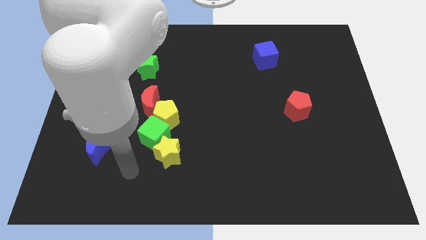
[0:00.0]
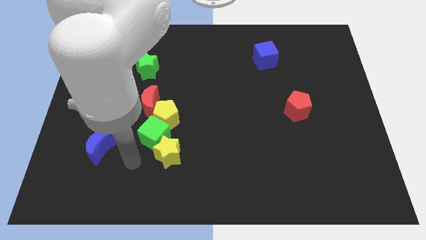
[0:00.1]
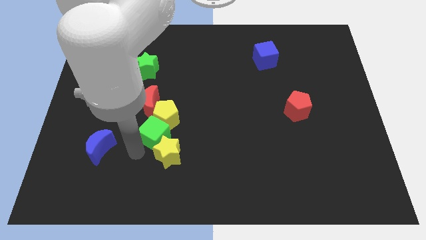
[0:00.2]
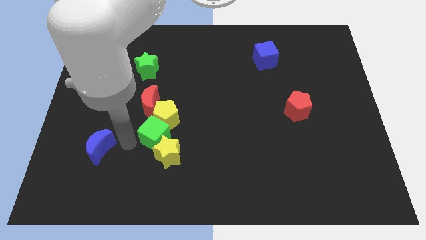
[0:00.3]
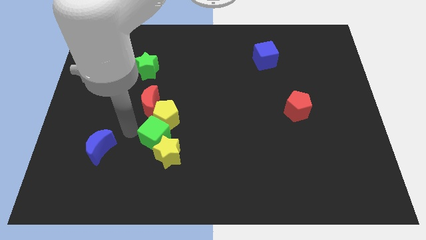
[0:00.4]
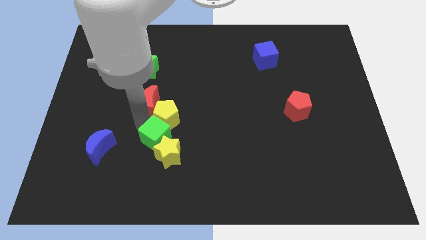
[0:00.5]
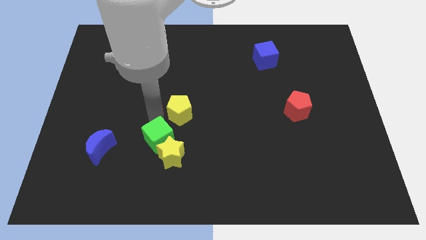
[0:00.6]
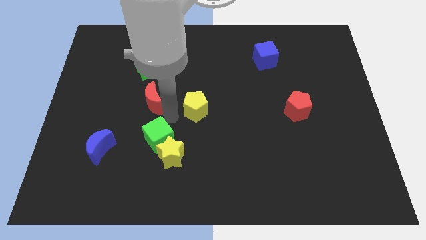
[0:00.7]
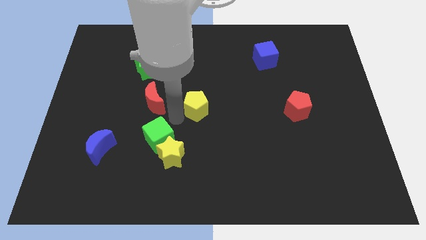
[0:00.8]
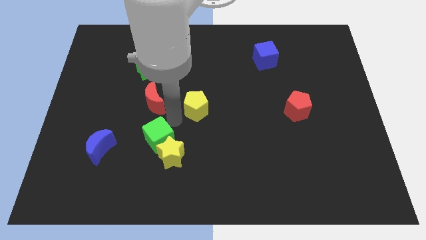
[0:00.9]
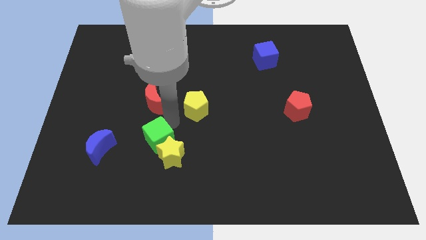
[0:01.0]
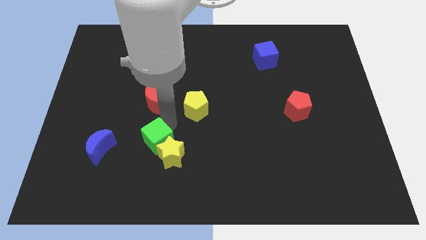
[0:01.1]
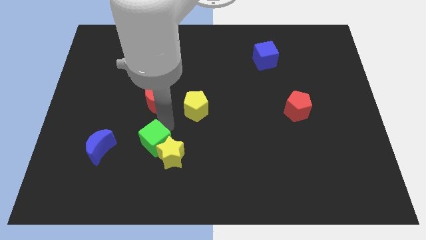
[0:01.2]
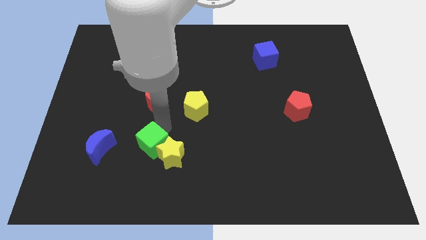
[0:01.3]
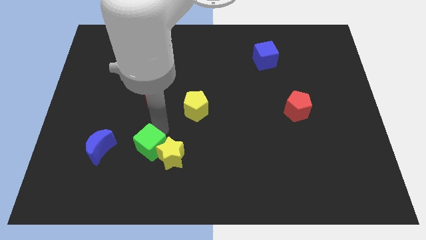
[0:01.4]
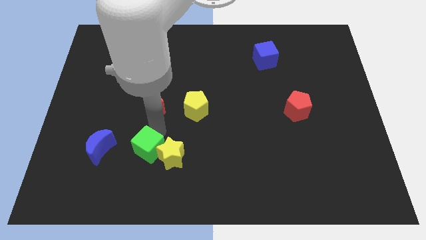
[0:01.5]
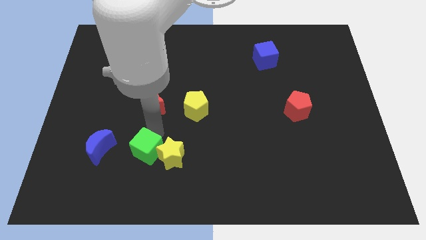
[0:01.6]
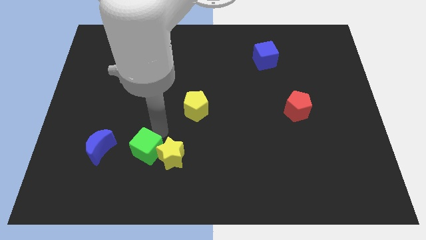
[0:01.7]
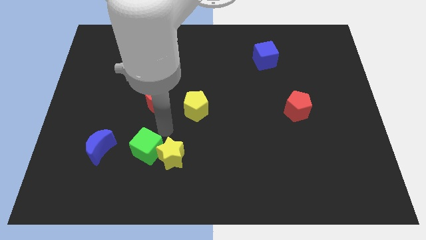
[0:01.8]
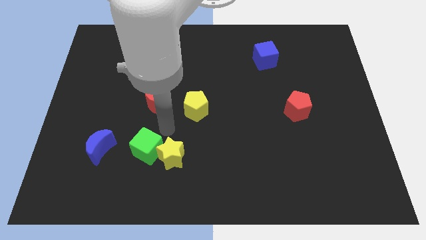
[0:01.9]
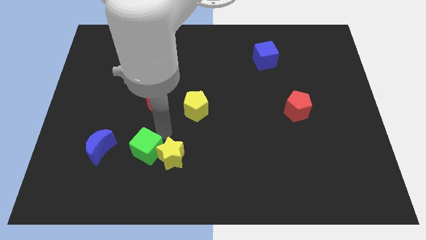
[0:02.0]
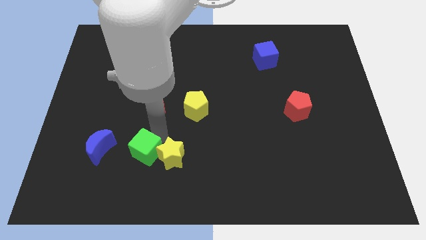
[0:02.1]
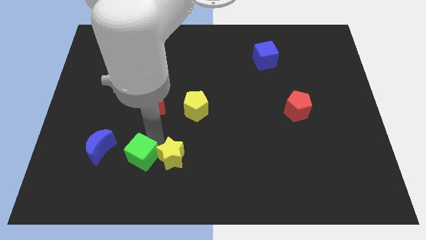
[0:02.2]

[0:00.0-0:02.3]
separate the green cube from the yellow pentagon, yellow star, and red moon

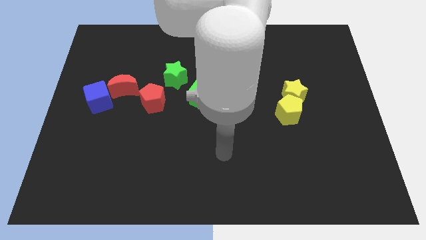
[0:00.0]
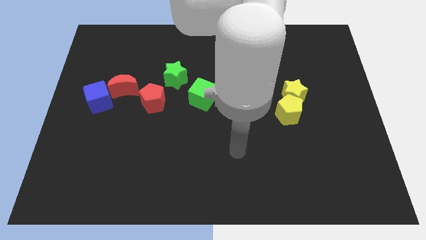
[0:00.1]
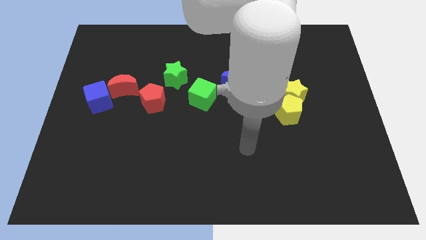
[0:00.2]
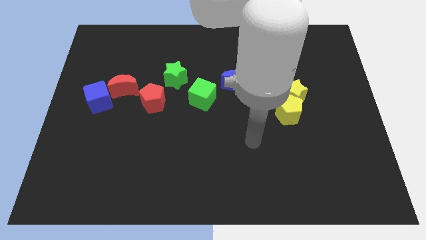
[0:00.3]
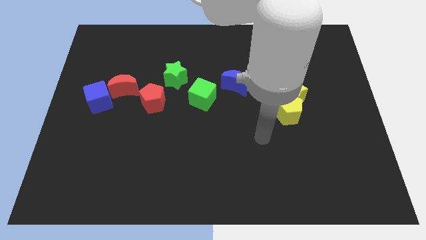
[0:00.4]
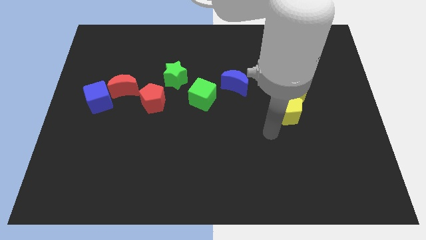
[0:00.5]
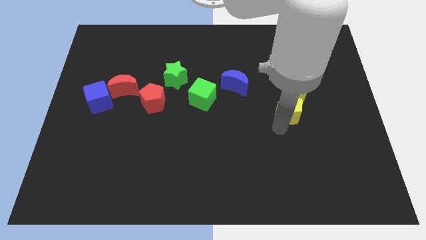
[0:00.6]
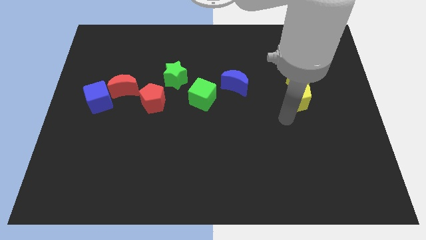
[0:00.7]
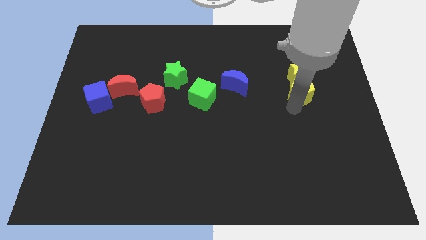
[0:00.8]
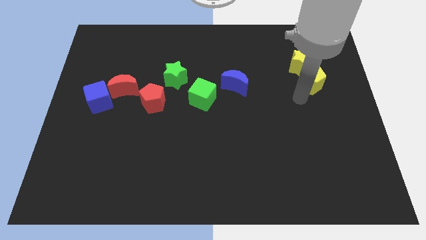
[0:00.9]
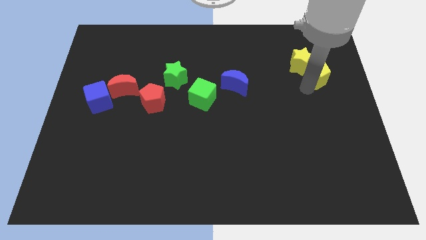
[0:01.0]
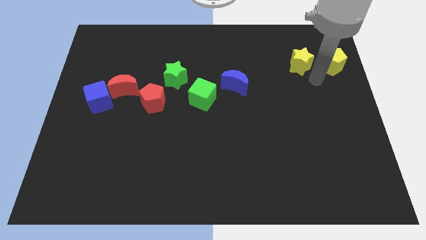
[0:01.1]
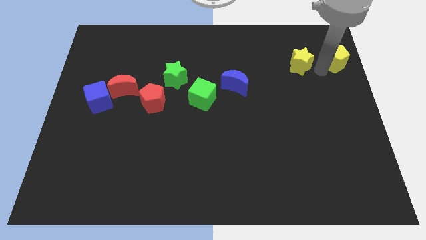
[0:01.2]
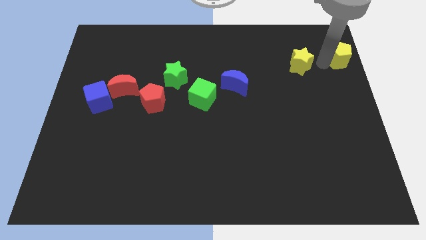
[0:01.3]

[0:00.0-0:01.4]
pull the yellow star apart from the yellow pentagon

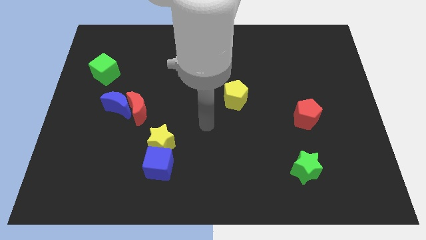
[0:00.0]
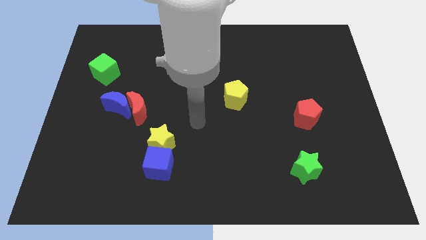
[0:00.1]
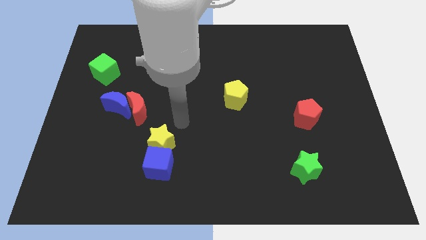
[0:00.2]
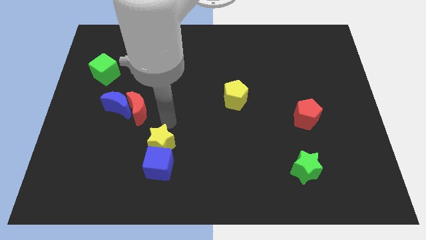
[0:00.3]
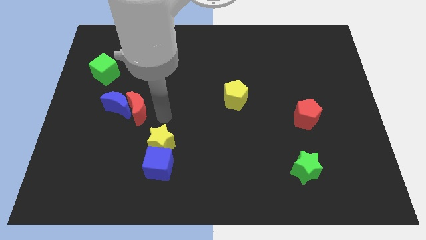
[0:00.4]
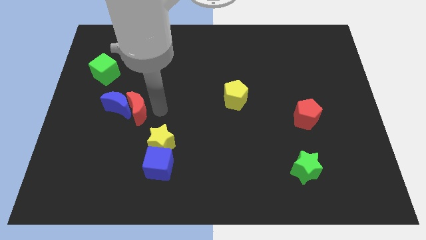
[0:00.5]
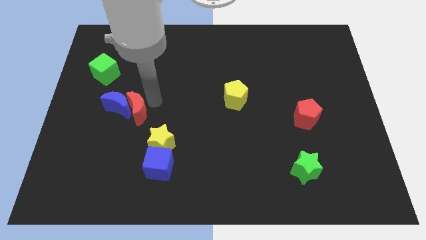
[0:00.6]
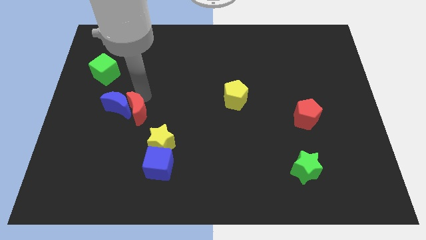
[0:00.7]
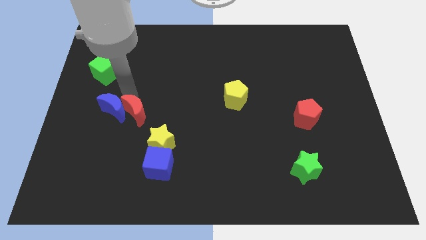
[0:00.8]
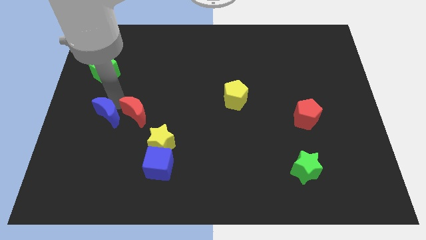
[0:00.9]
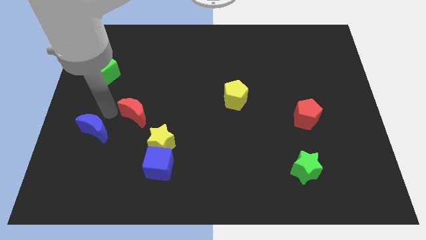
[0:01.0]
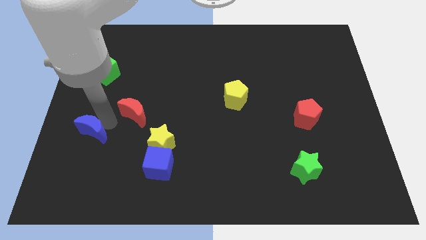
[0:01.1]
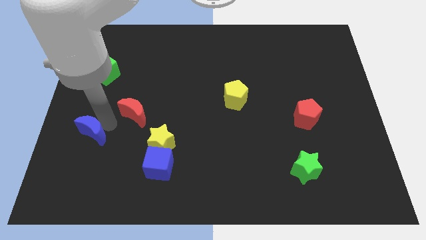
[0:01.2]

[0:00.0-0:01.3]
move the red moon away from the blue moon

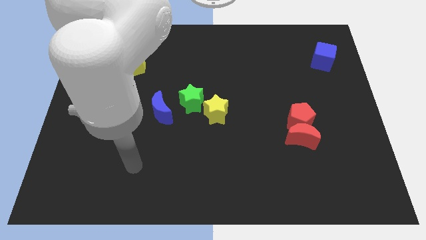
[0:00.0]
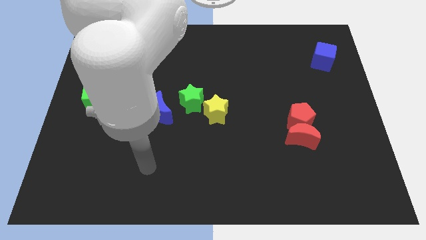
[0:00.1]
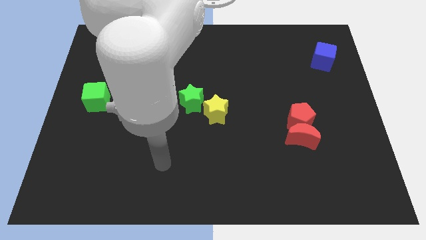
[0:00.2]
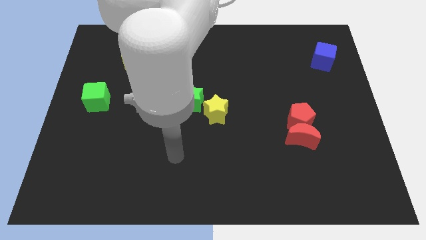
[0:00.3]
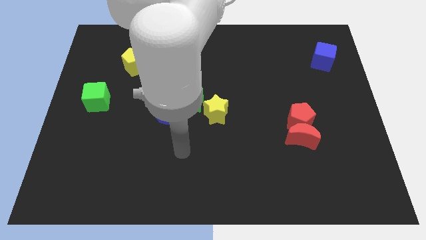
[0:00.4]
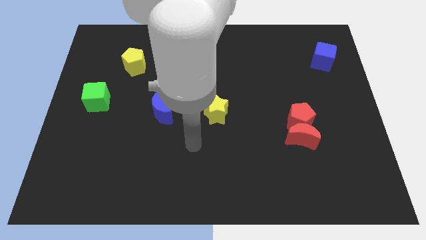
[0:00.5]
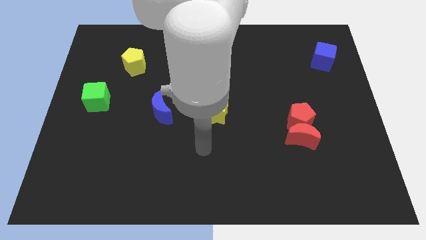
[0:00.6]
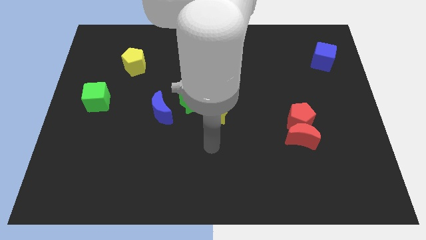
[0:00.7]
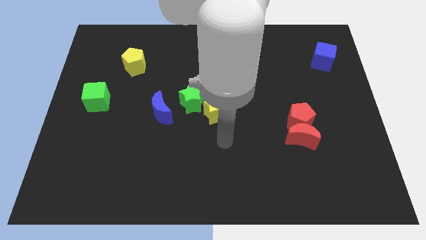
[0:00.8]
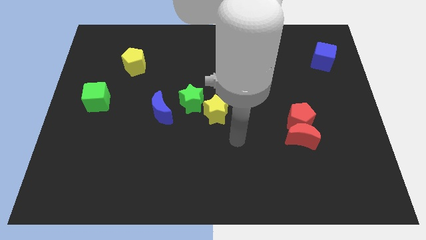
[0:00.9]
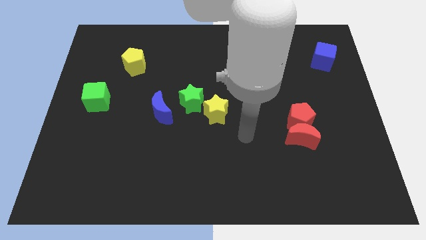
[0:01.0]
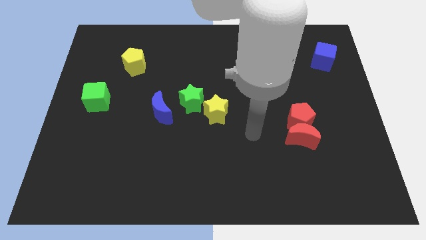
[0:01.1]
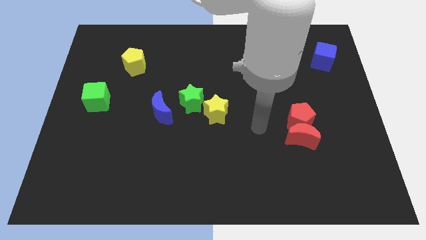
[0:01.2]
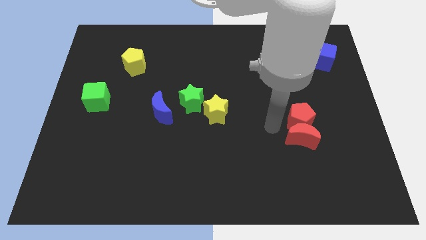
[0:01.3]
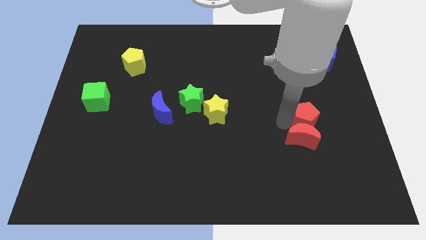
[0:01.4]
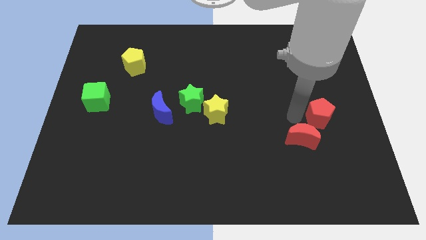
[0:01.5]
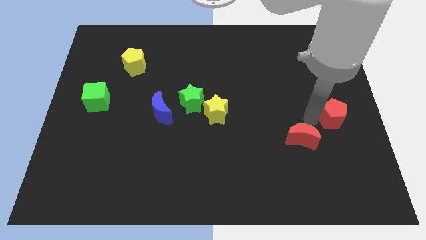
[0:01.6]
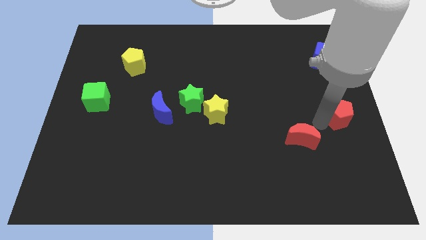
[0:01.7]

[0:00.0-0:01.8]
move the red moon away from the red pentagon

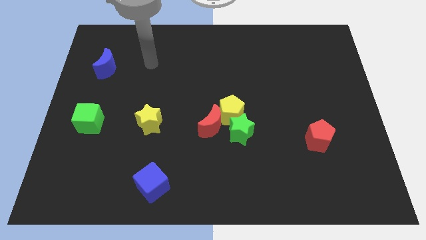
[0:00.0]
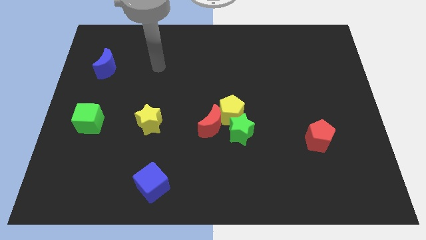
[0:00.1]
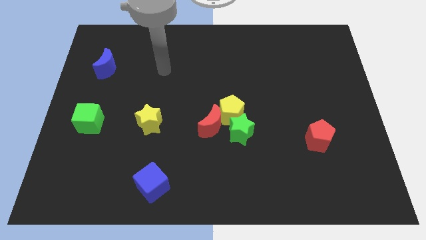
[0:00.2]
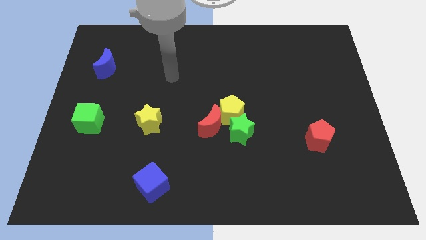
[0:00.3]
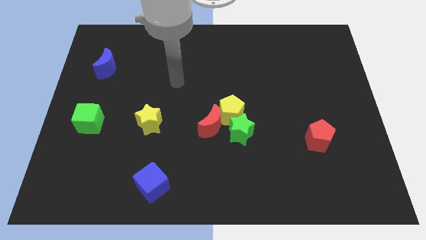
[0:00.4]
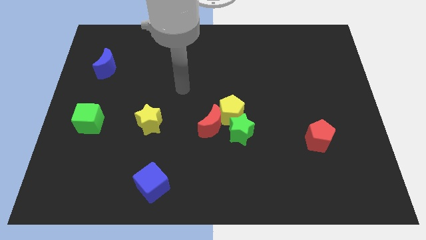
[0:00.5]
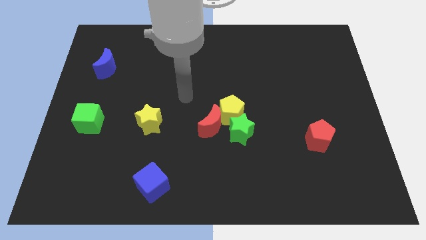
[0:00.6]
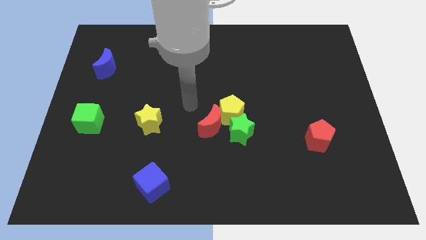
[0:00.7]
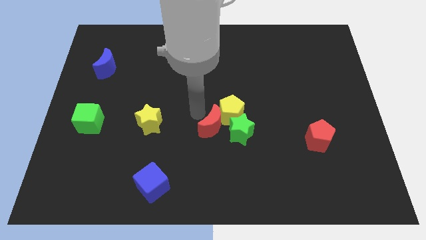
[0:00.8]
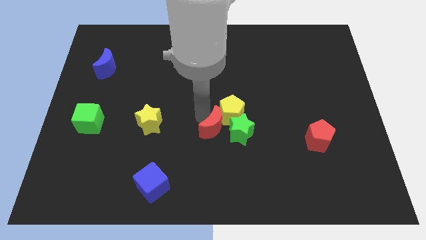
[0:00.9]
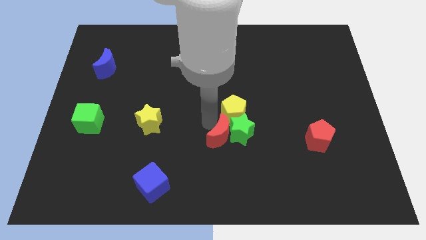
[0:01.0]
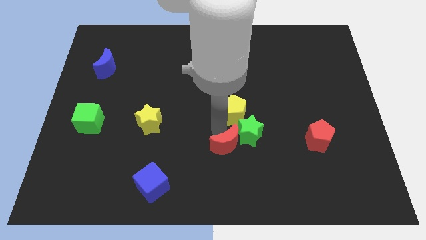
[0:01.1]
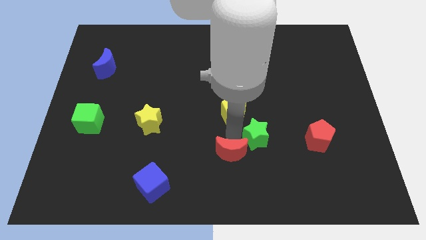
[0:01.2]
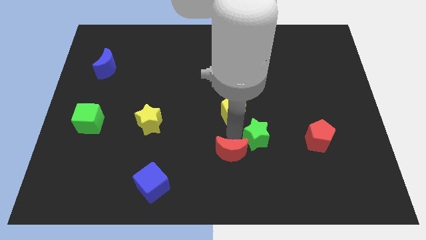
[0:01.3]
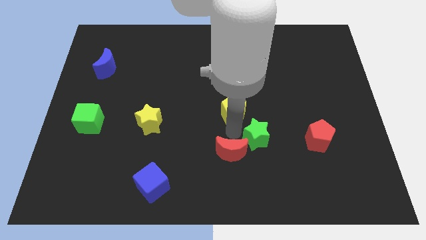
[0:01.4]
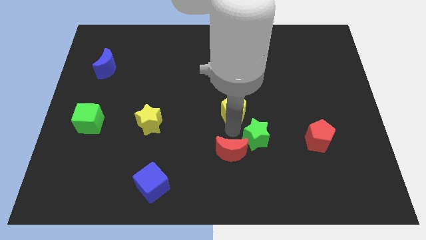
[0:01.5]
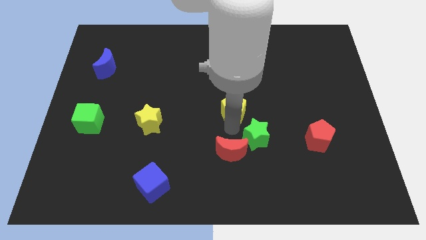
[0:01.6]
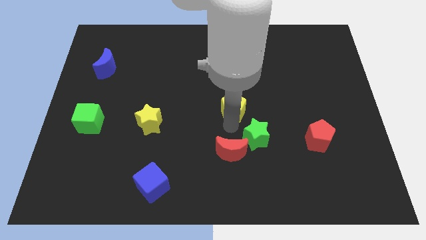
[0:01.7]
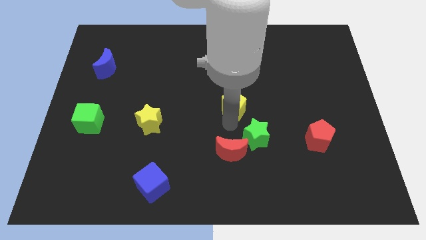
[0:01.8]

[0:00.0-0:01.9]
separate the yellow pentagon from the red moon and green star

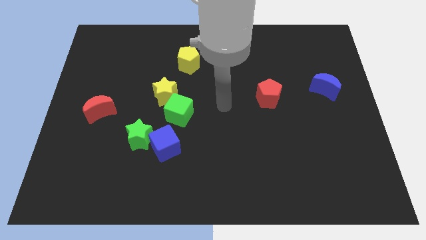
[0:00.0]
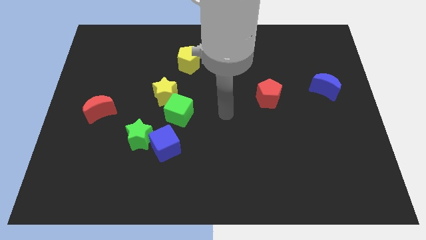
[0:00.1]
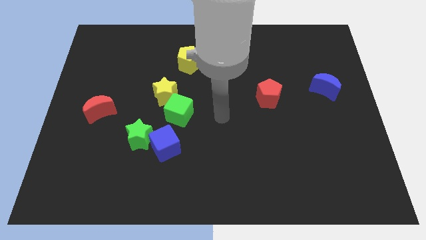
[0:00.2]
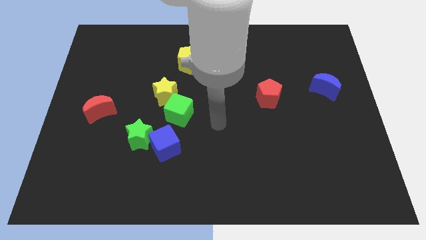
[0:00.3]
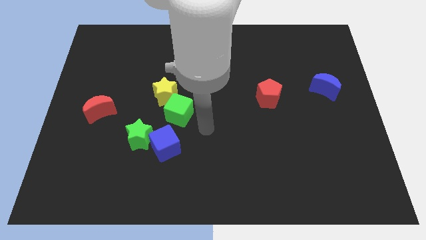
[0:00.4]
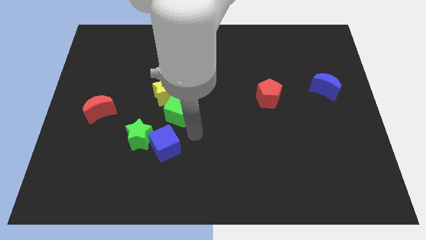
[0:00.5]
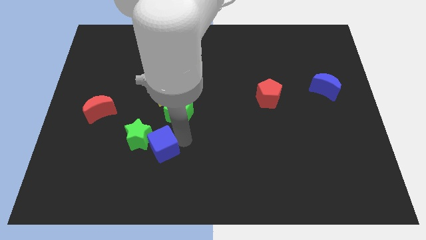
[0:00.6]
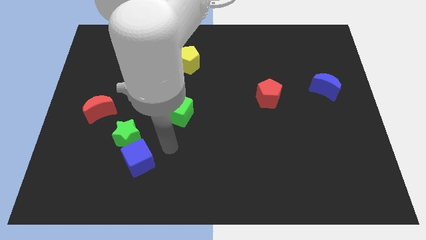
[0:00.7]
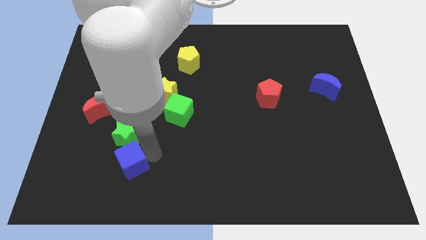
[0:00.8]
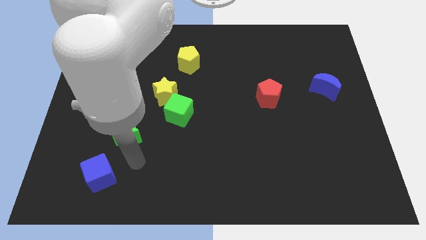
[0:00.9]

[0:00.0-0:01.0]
move the green star away from the blue cube
